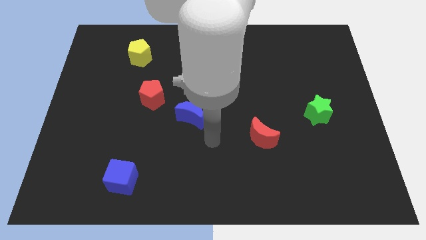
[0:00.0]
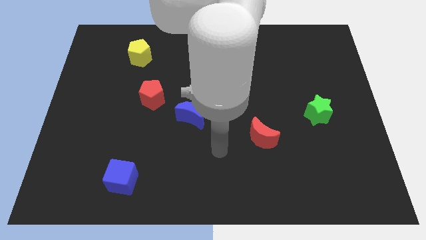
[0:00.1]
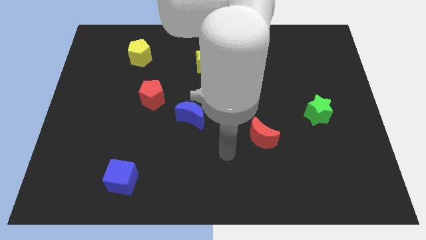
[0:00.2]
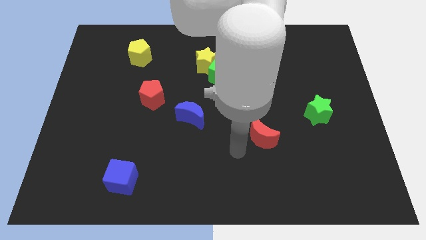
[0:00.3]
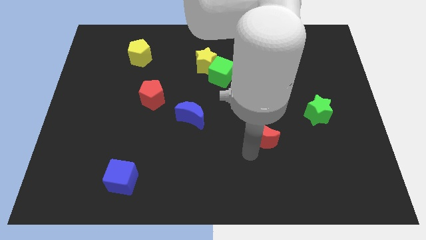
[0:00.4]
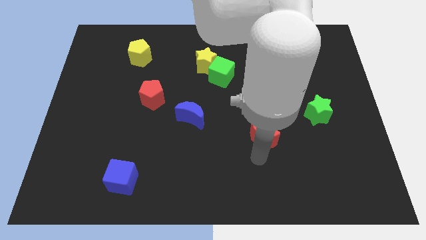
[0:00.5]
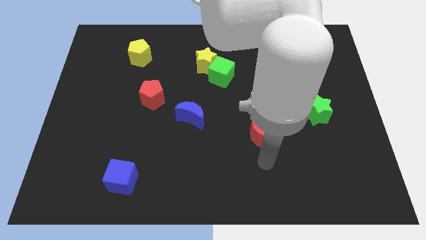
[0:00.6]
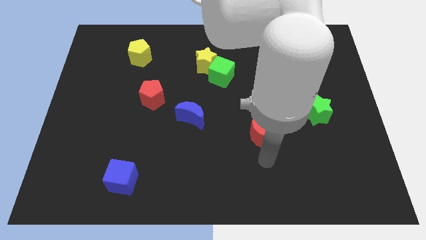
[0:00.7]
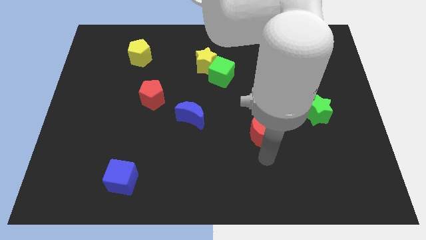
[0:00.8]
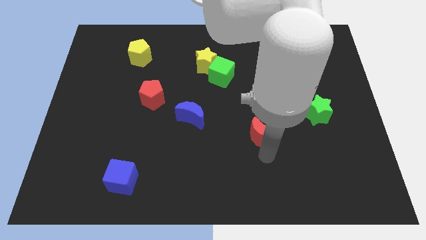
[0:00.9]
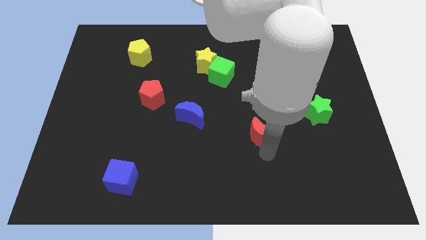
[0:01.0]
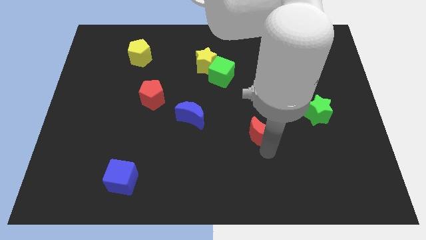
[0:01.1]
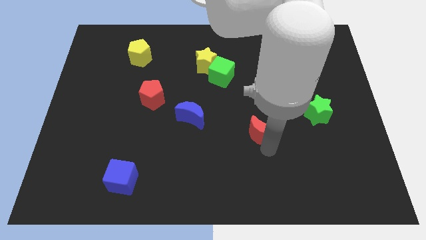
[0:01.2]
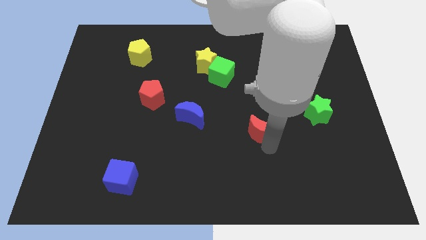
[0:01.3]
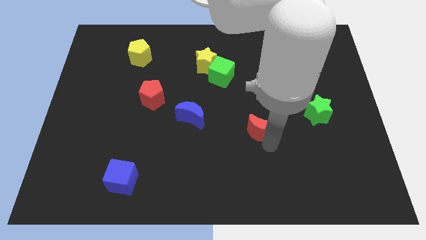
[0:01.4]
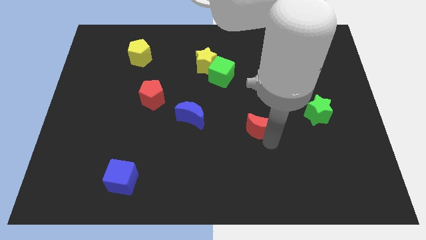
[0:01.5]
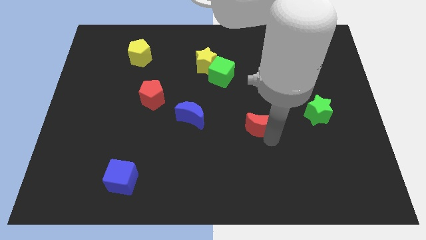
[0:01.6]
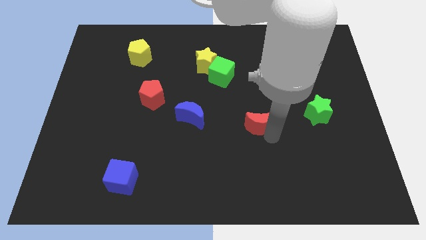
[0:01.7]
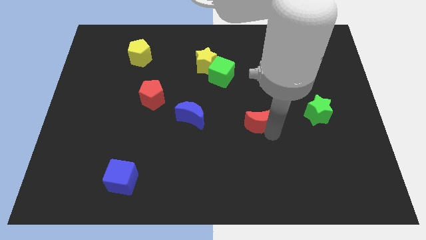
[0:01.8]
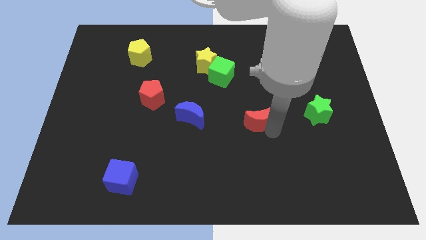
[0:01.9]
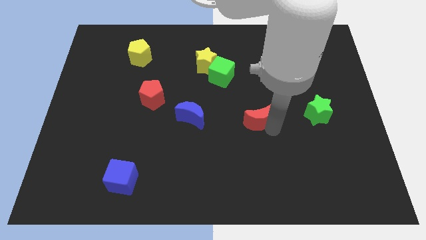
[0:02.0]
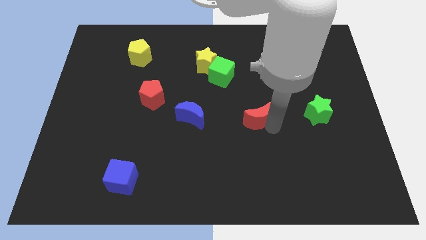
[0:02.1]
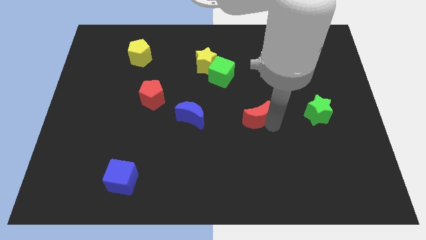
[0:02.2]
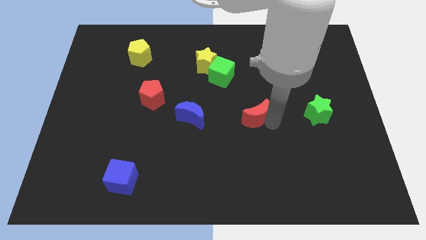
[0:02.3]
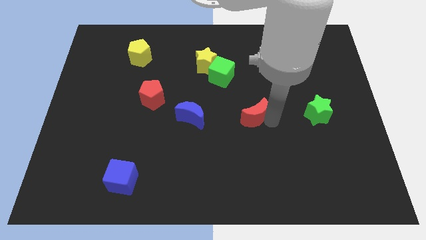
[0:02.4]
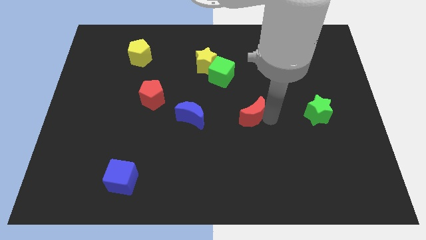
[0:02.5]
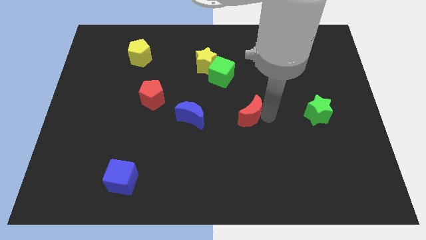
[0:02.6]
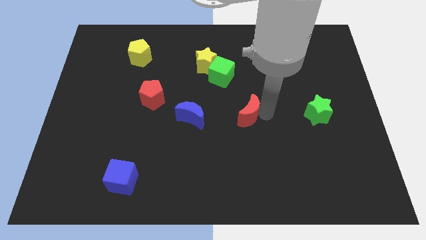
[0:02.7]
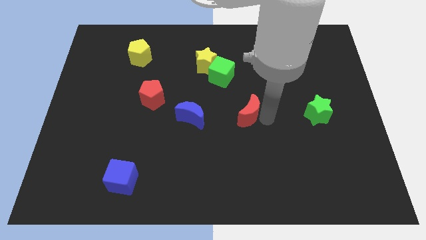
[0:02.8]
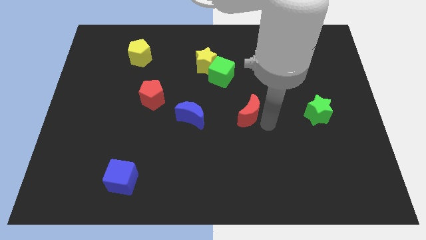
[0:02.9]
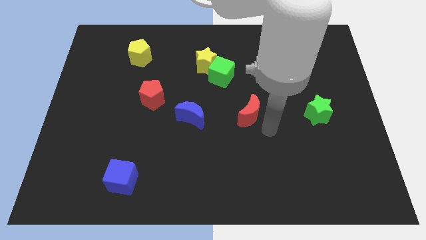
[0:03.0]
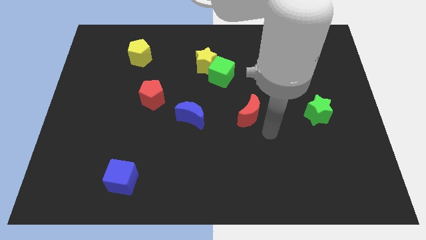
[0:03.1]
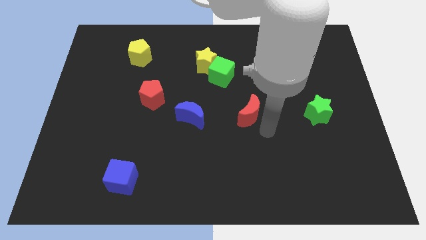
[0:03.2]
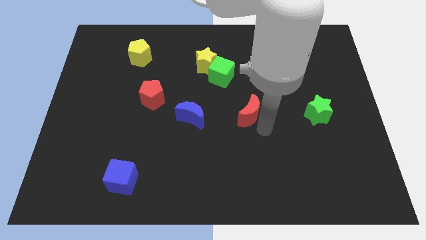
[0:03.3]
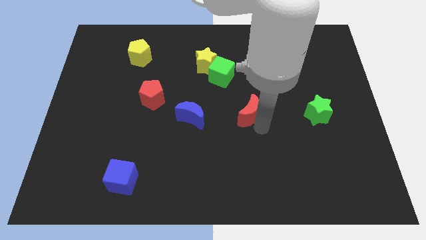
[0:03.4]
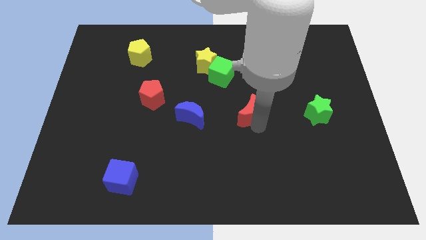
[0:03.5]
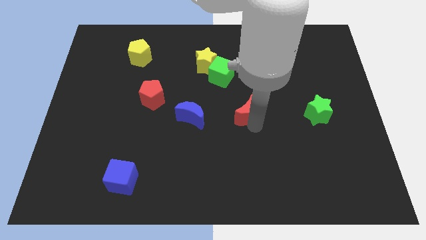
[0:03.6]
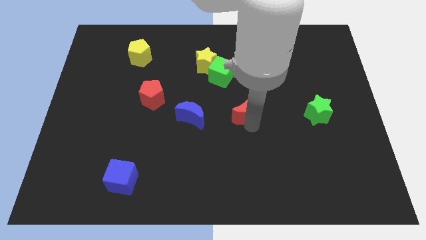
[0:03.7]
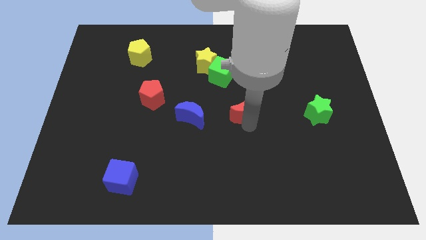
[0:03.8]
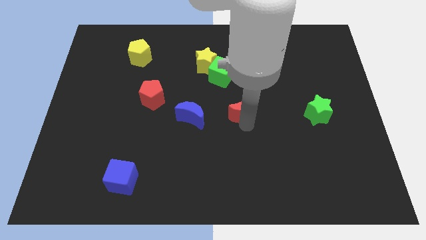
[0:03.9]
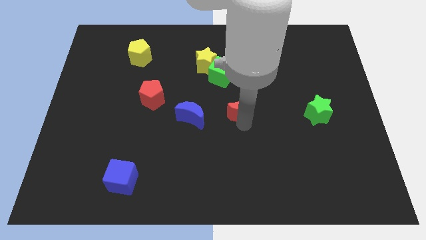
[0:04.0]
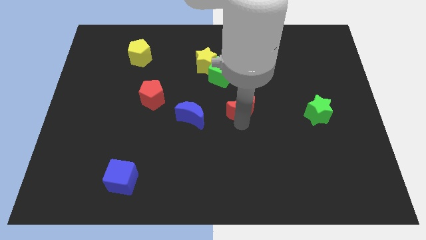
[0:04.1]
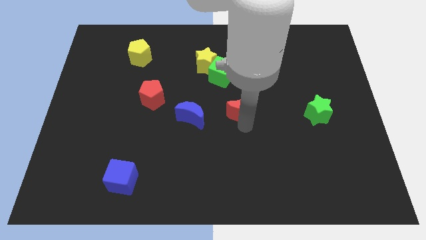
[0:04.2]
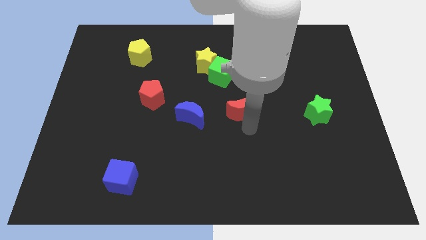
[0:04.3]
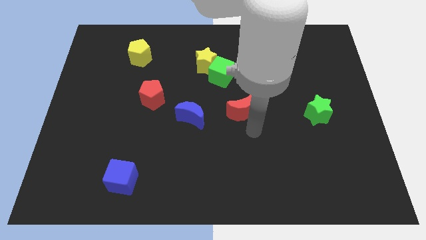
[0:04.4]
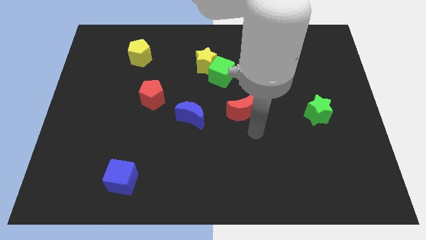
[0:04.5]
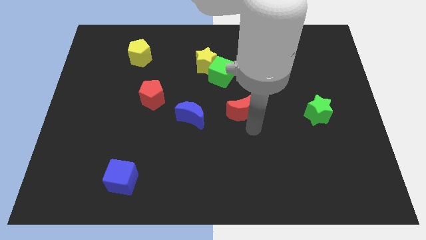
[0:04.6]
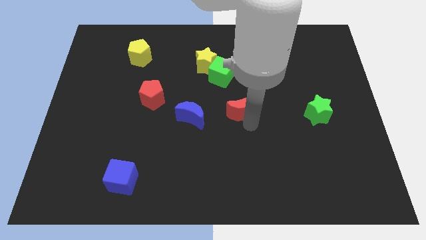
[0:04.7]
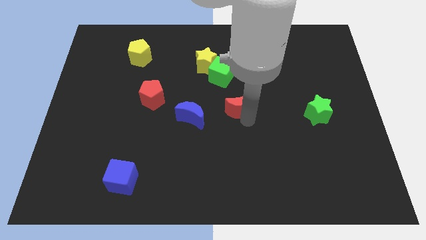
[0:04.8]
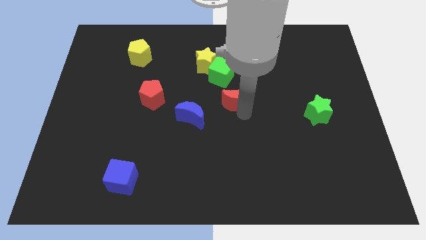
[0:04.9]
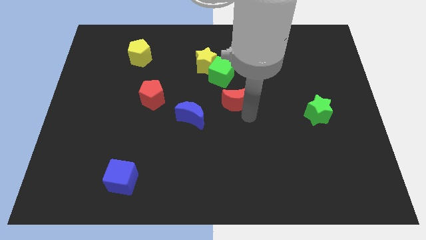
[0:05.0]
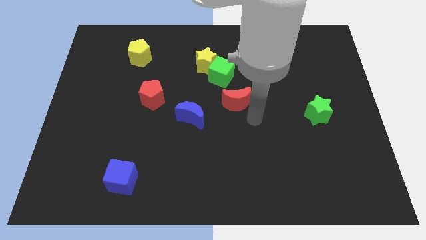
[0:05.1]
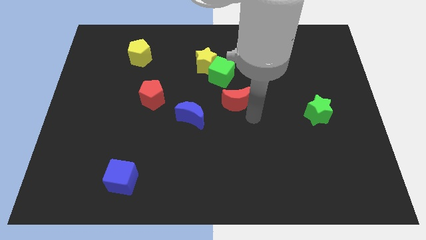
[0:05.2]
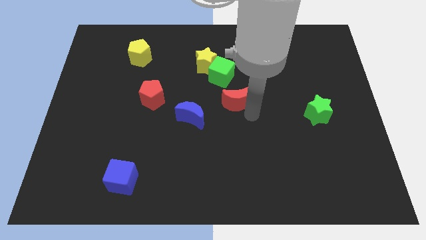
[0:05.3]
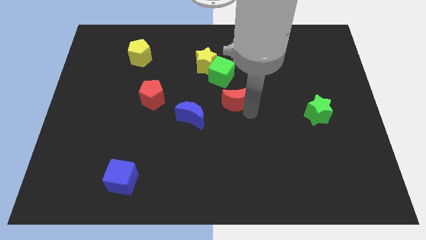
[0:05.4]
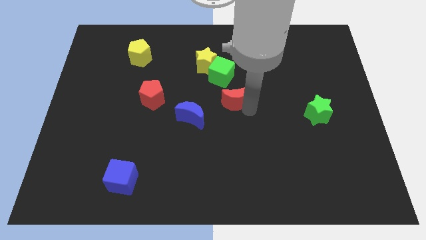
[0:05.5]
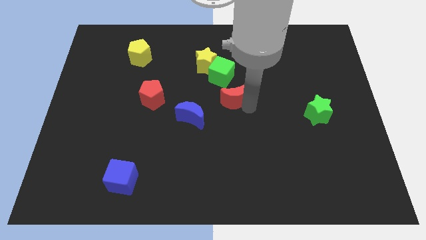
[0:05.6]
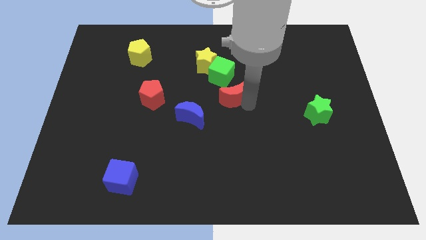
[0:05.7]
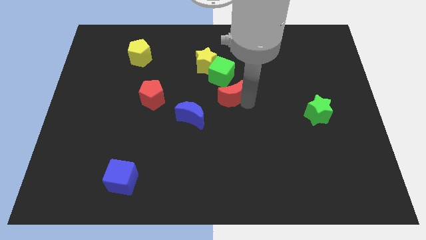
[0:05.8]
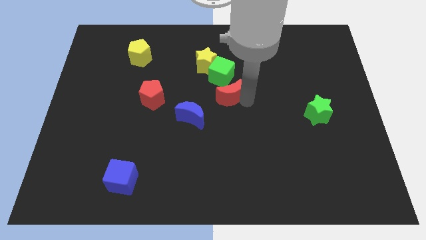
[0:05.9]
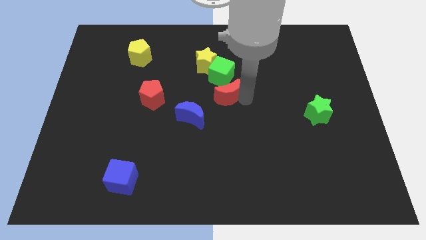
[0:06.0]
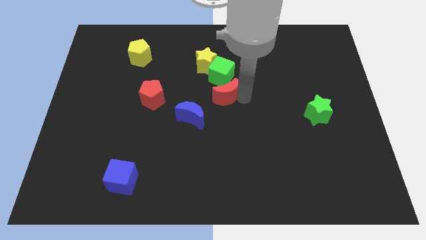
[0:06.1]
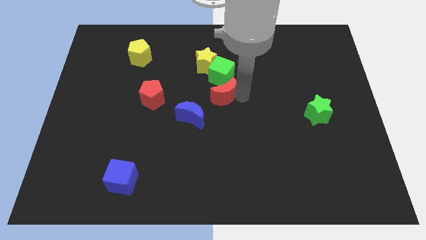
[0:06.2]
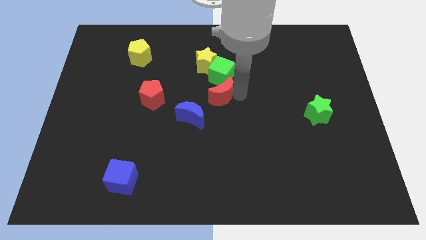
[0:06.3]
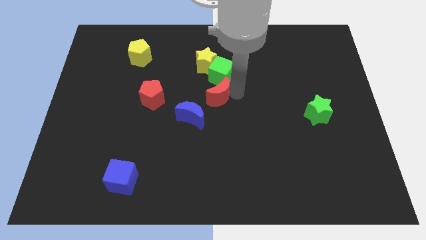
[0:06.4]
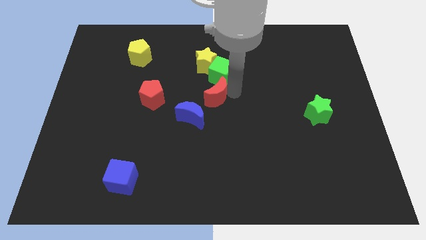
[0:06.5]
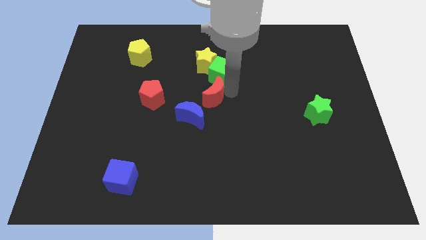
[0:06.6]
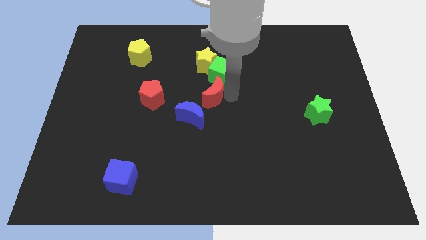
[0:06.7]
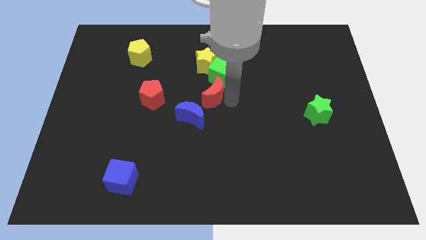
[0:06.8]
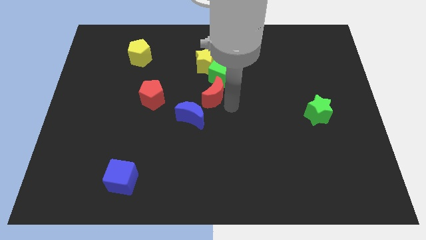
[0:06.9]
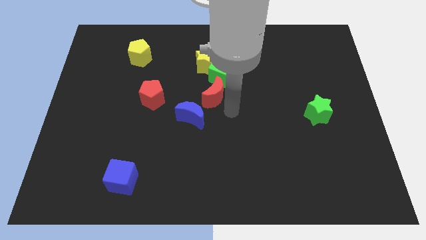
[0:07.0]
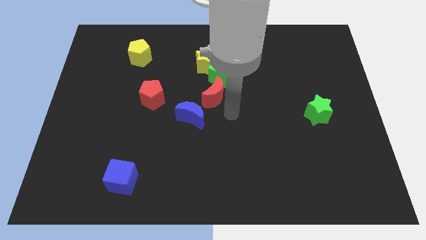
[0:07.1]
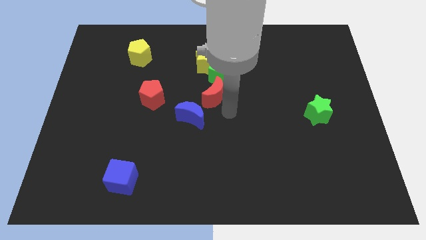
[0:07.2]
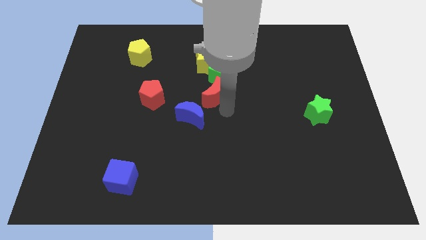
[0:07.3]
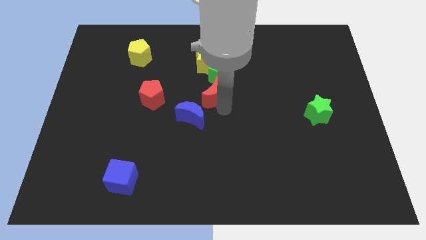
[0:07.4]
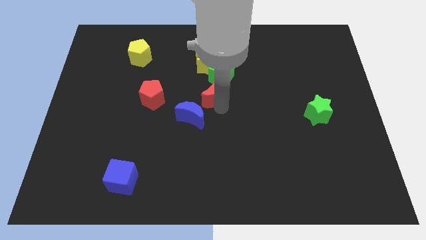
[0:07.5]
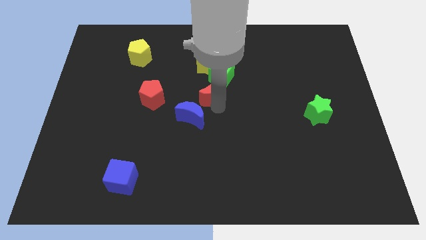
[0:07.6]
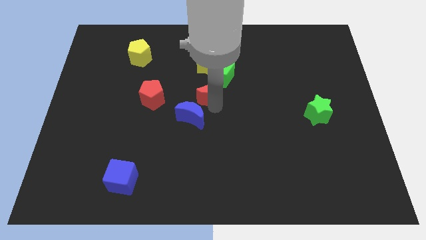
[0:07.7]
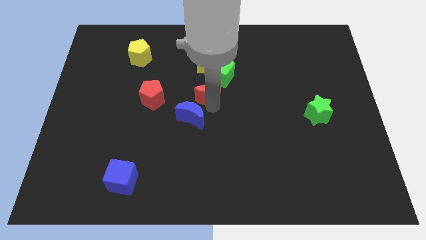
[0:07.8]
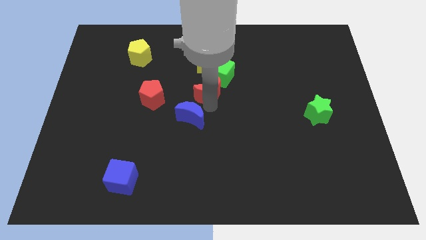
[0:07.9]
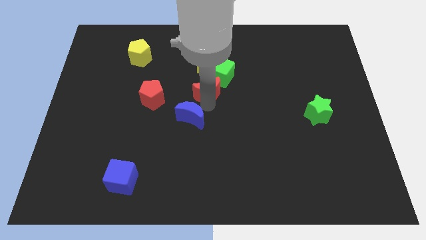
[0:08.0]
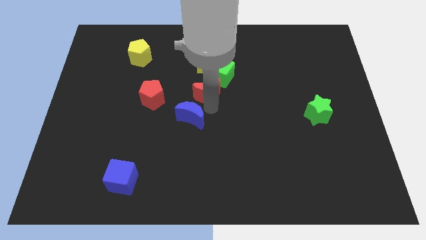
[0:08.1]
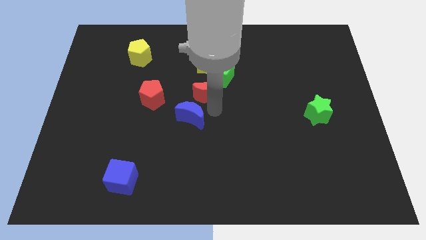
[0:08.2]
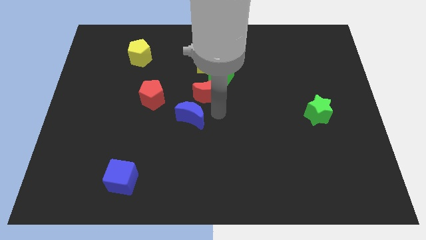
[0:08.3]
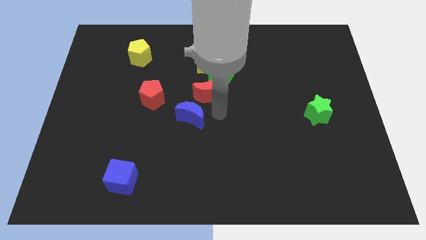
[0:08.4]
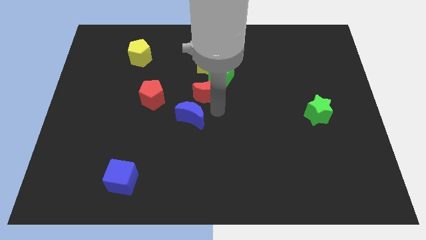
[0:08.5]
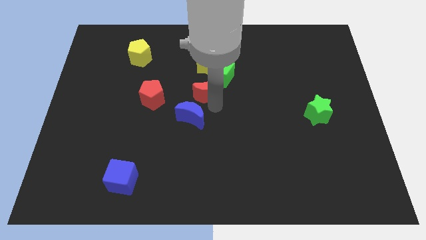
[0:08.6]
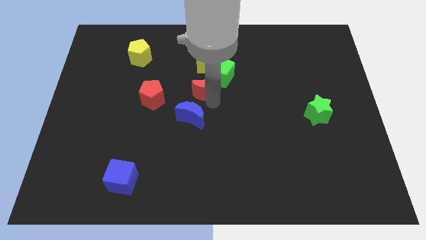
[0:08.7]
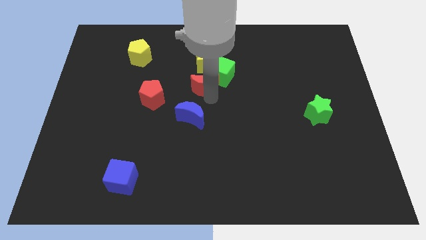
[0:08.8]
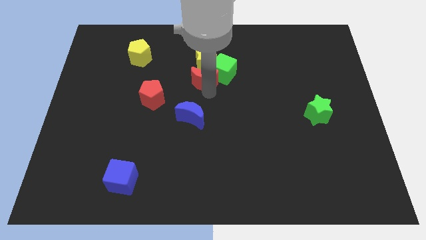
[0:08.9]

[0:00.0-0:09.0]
slide the red moon up and then to the left
